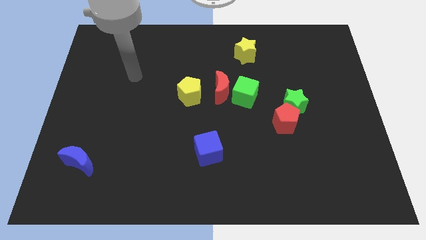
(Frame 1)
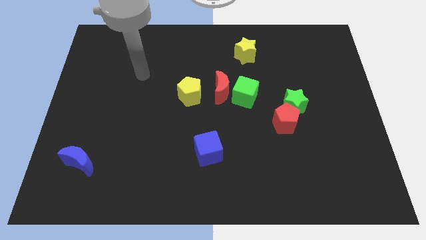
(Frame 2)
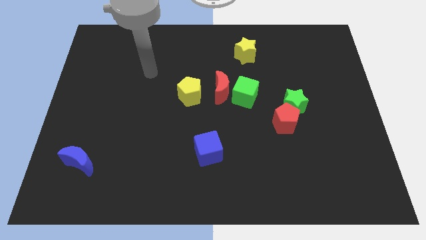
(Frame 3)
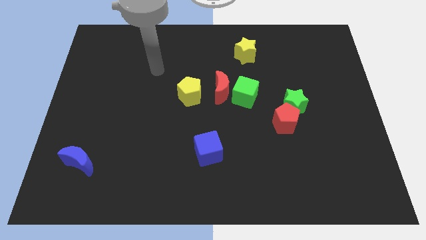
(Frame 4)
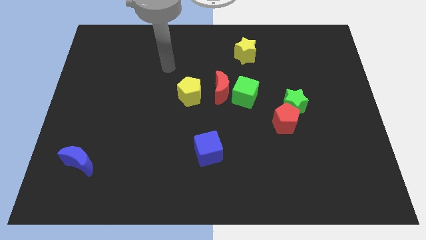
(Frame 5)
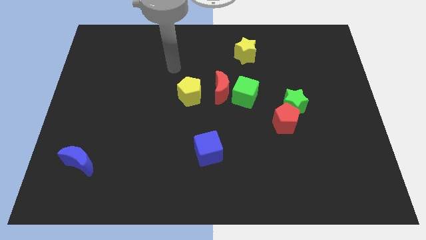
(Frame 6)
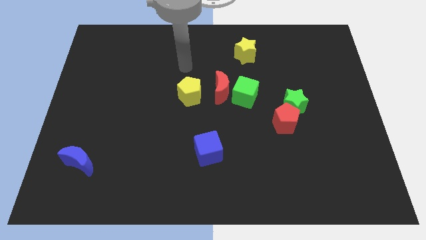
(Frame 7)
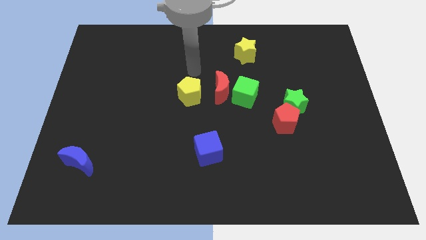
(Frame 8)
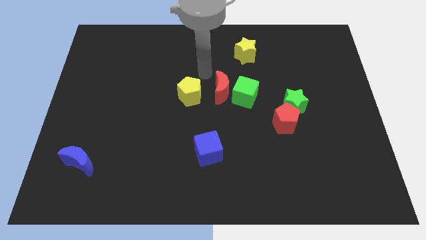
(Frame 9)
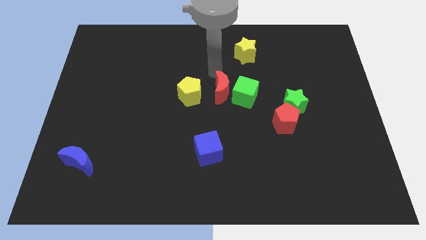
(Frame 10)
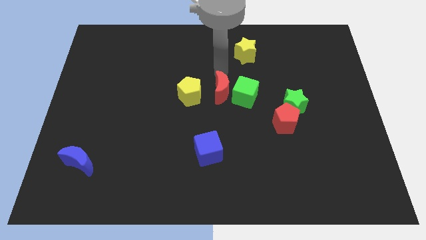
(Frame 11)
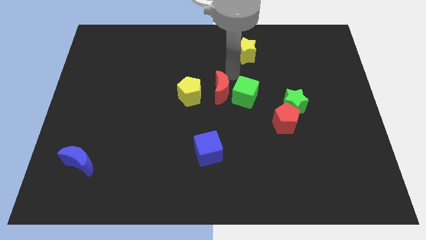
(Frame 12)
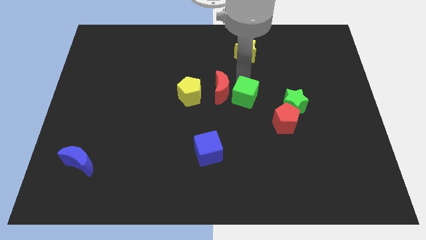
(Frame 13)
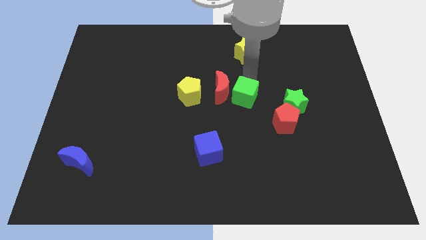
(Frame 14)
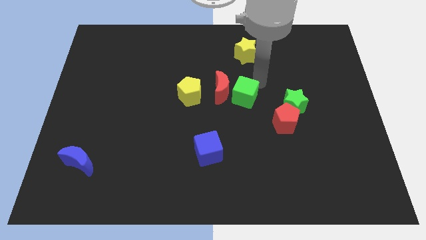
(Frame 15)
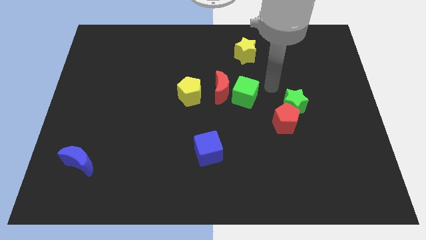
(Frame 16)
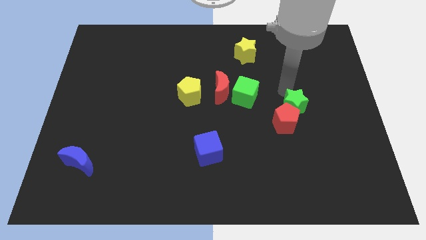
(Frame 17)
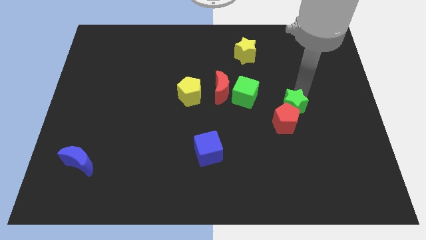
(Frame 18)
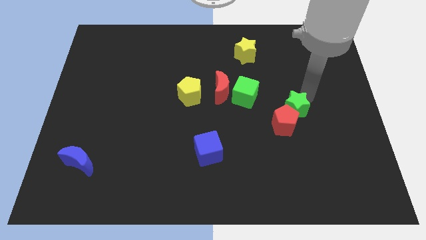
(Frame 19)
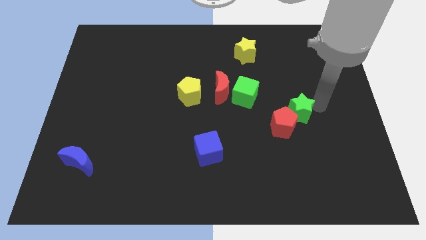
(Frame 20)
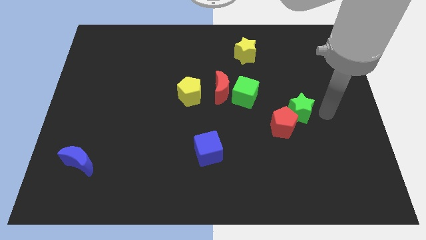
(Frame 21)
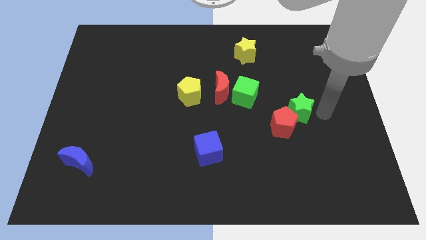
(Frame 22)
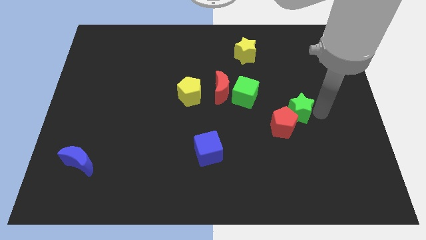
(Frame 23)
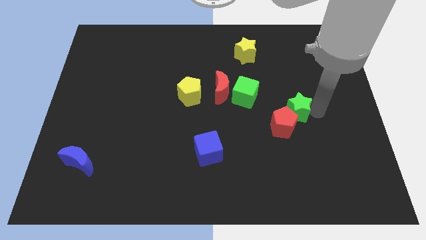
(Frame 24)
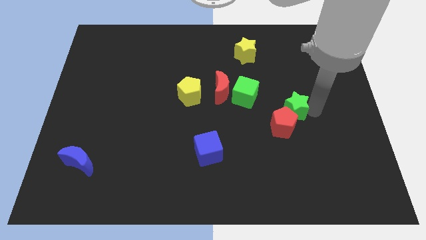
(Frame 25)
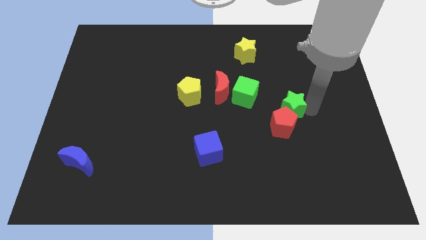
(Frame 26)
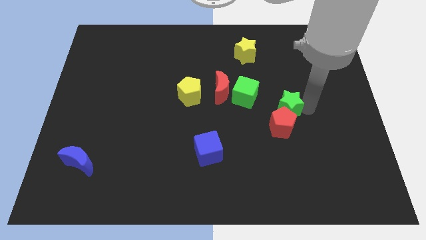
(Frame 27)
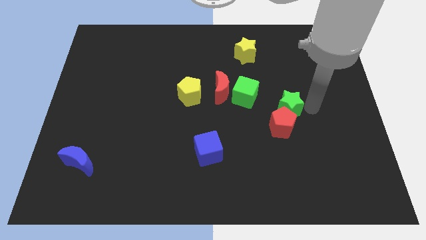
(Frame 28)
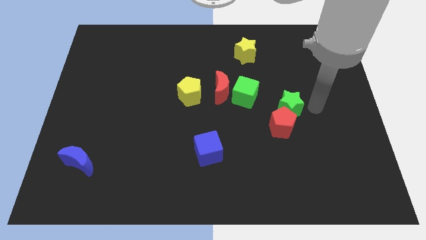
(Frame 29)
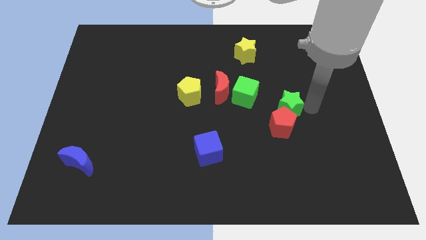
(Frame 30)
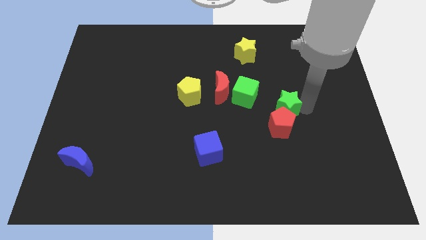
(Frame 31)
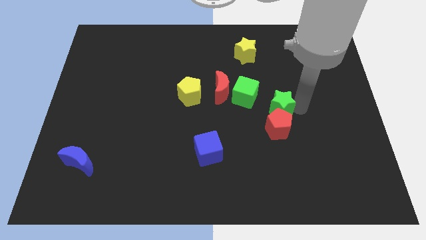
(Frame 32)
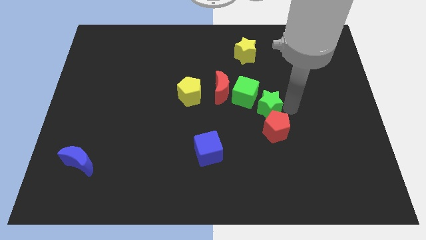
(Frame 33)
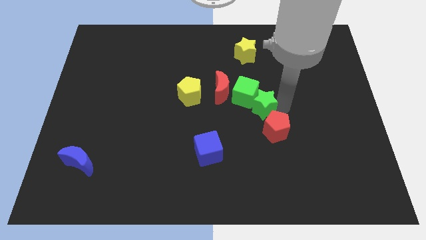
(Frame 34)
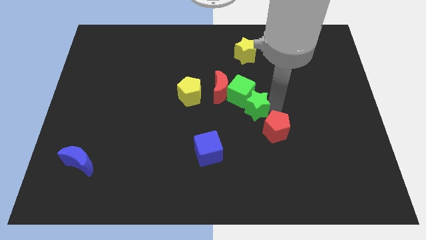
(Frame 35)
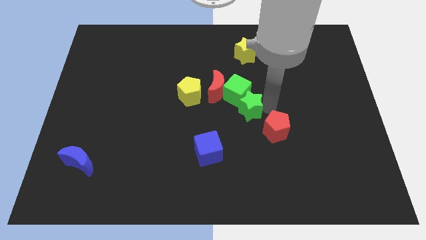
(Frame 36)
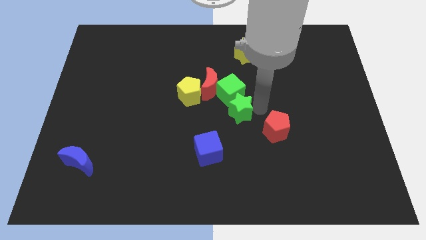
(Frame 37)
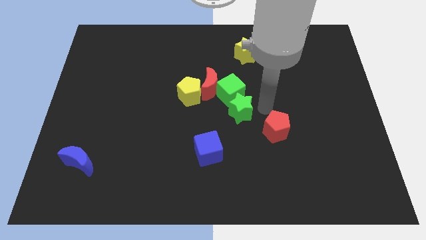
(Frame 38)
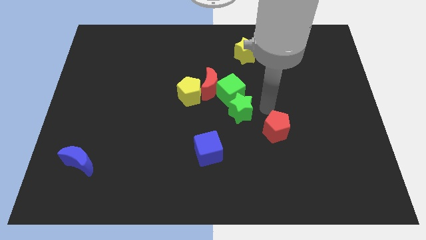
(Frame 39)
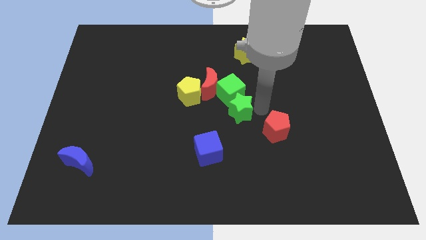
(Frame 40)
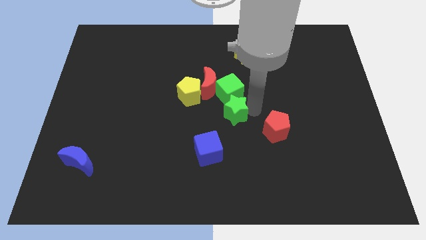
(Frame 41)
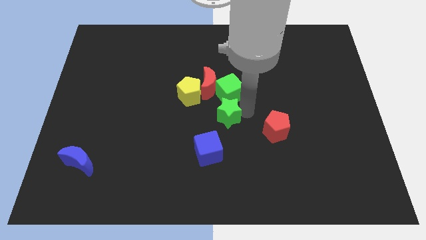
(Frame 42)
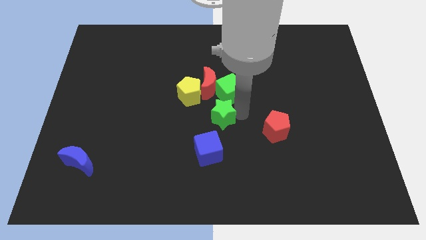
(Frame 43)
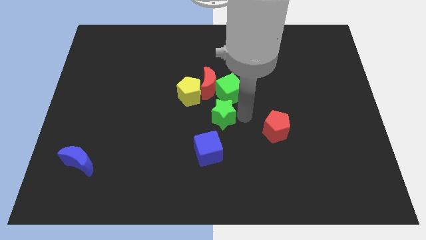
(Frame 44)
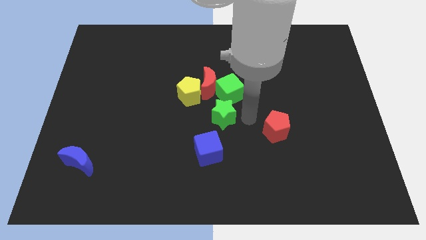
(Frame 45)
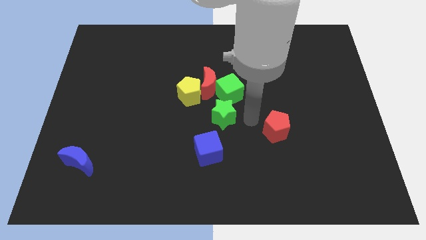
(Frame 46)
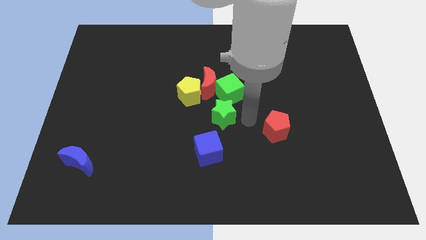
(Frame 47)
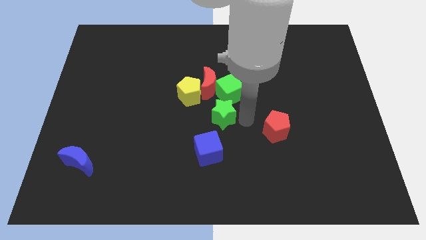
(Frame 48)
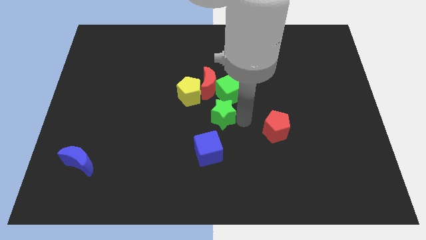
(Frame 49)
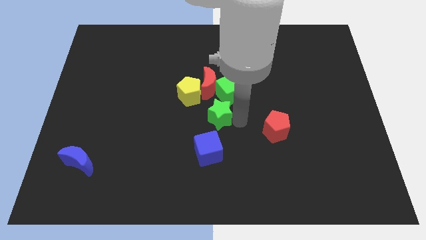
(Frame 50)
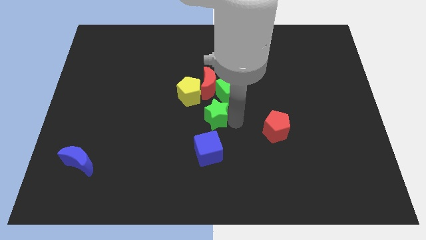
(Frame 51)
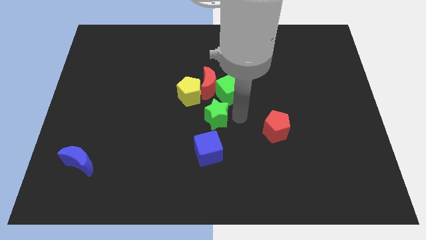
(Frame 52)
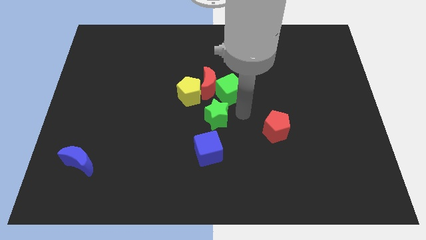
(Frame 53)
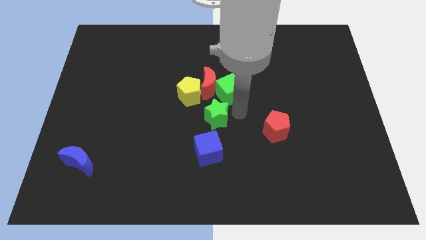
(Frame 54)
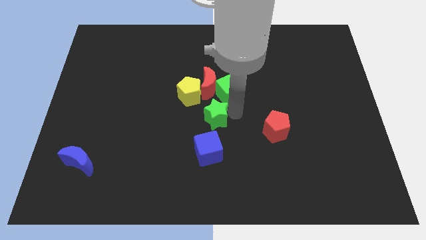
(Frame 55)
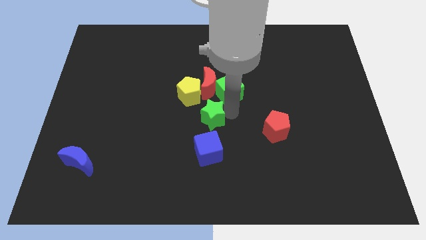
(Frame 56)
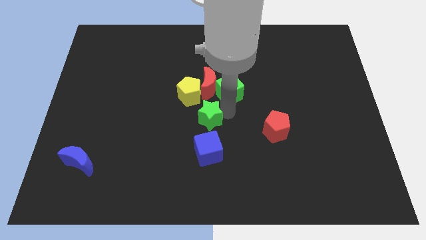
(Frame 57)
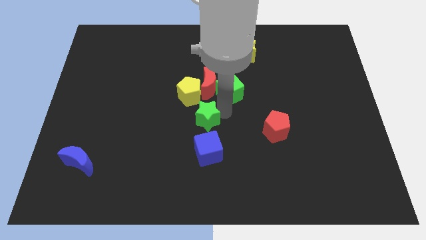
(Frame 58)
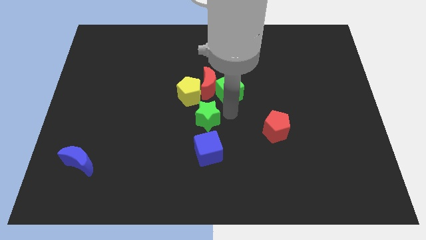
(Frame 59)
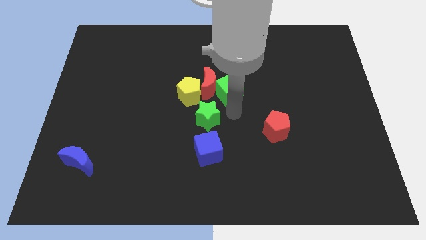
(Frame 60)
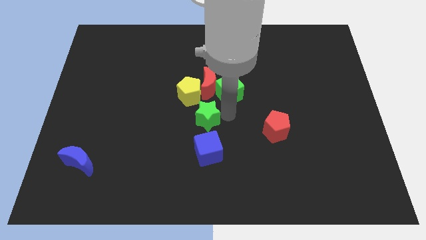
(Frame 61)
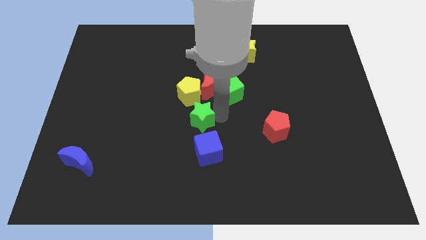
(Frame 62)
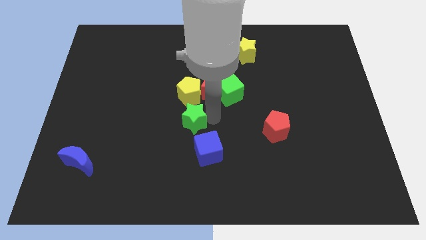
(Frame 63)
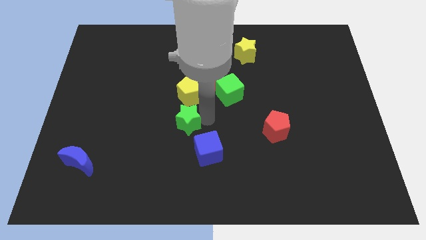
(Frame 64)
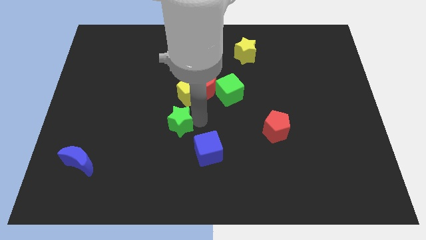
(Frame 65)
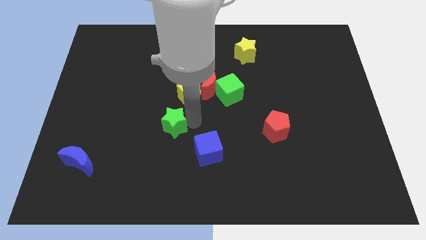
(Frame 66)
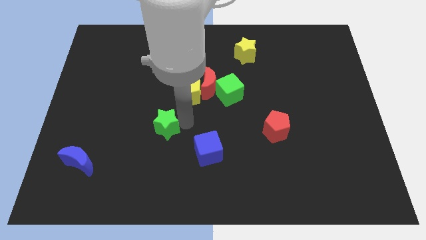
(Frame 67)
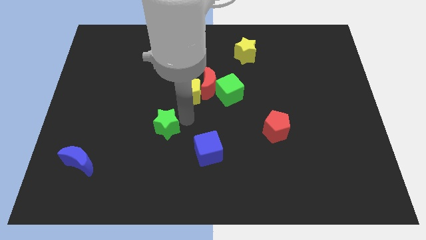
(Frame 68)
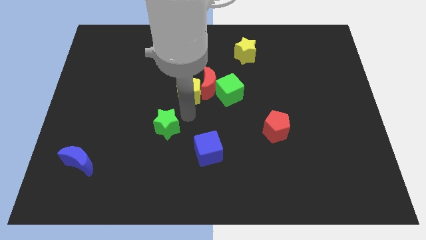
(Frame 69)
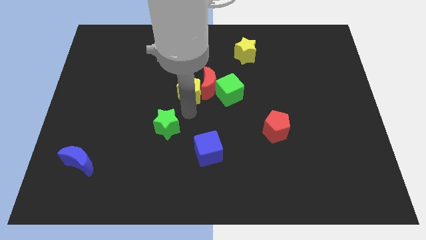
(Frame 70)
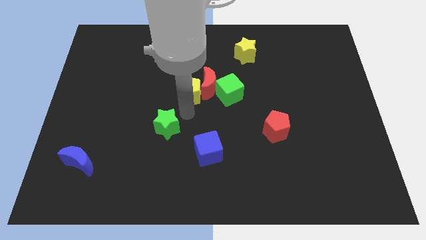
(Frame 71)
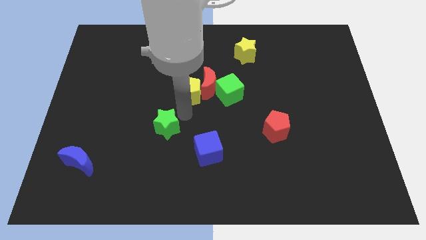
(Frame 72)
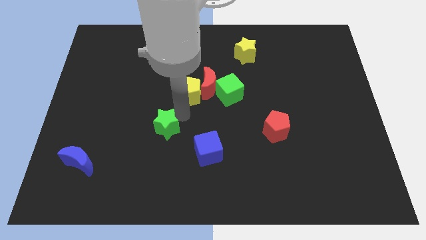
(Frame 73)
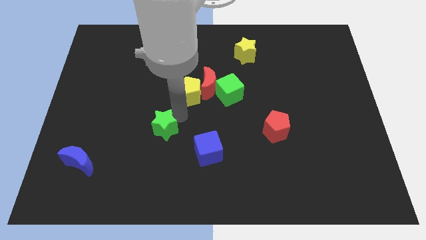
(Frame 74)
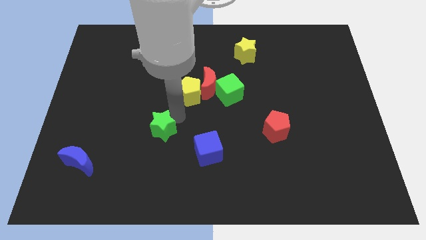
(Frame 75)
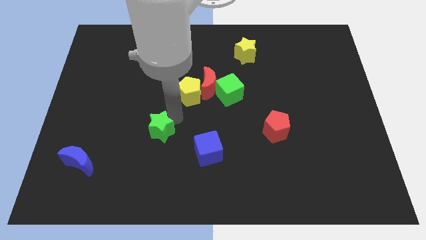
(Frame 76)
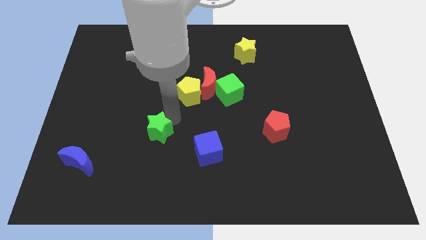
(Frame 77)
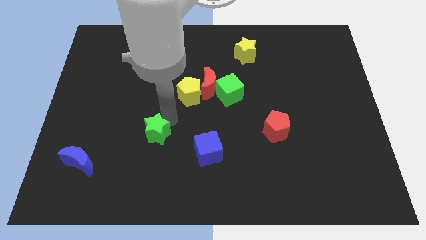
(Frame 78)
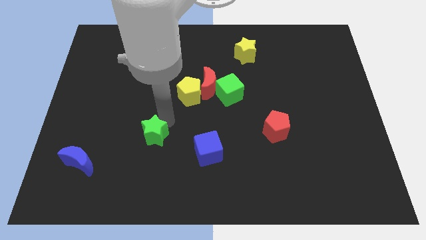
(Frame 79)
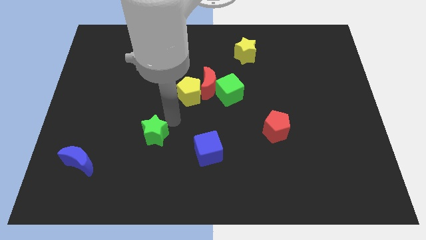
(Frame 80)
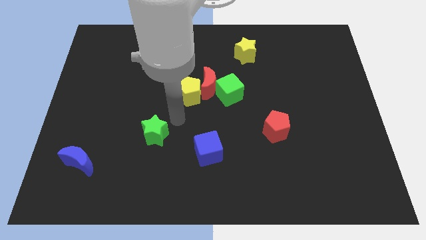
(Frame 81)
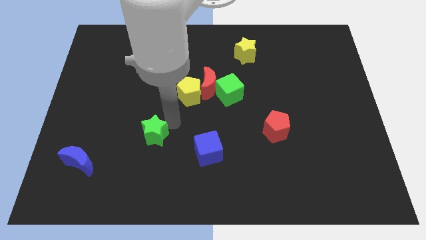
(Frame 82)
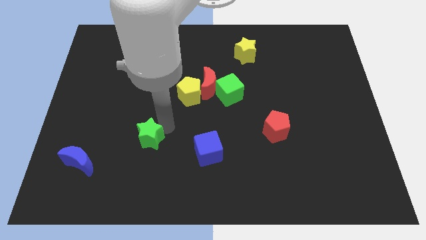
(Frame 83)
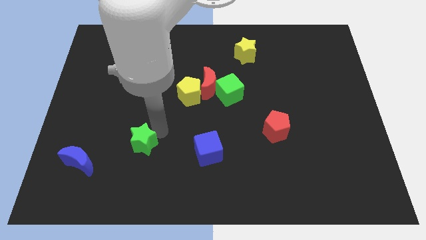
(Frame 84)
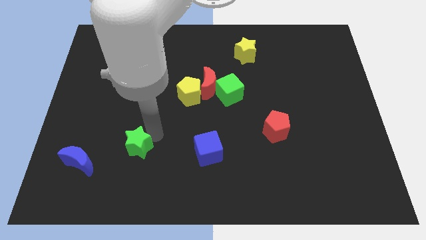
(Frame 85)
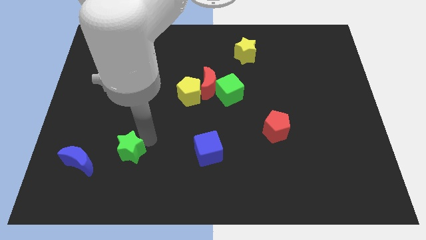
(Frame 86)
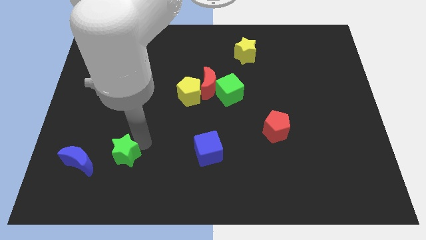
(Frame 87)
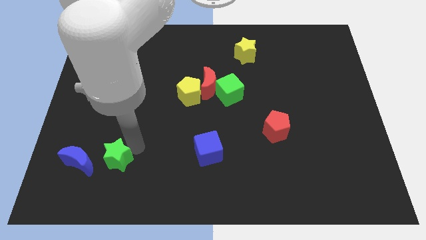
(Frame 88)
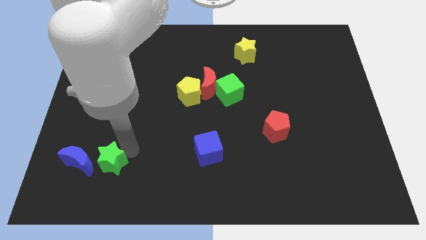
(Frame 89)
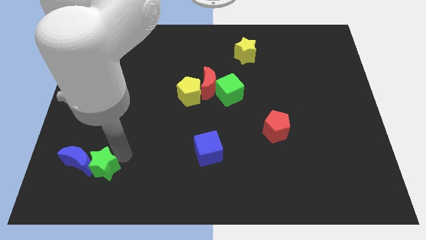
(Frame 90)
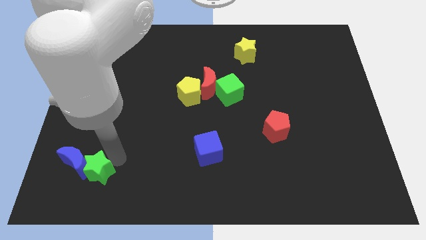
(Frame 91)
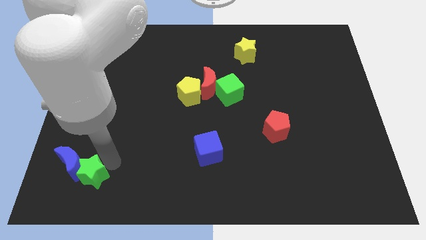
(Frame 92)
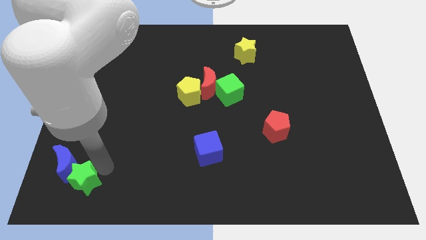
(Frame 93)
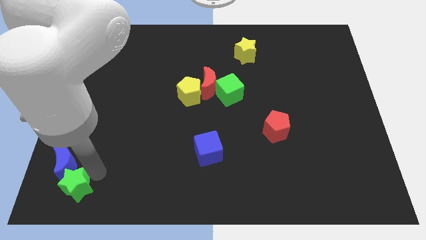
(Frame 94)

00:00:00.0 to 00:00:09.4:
put the green star to the lower left corner
